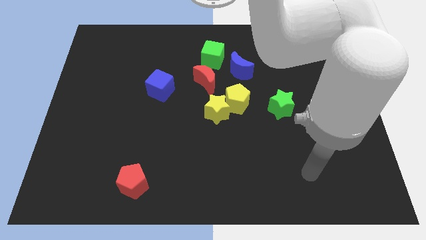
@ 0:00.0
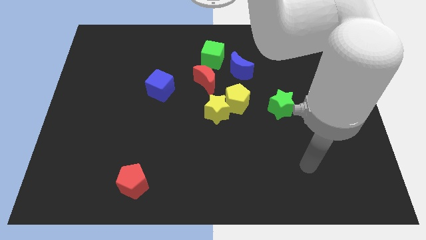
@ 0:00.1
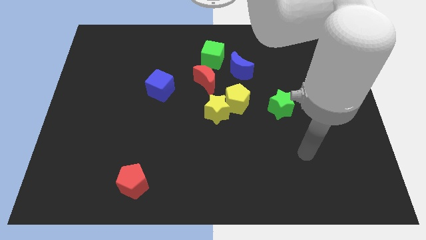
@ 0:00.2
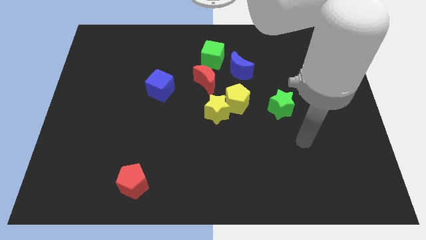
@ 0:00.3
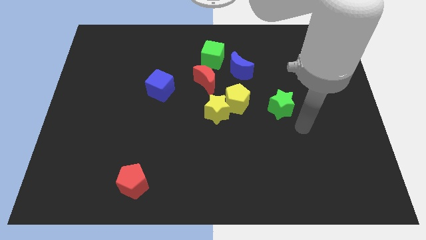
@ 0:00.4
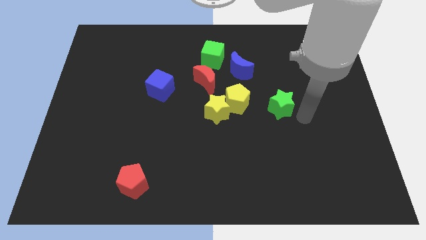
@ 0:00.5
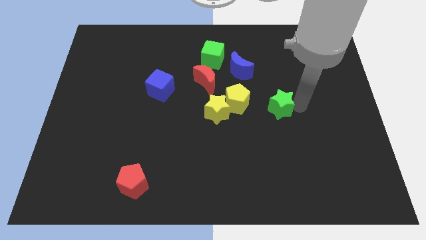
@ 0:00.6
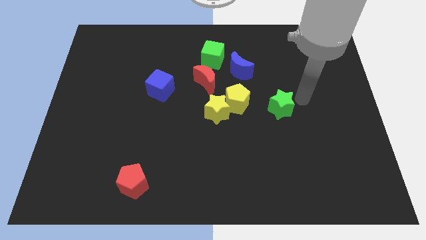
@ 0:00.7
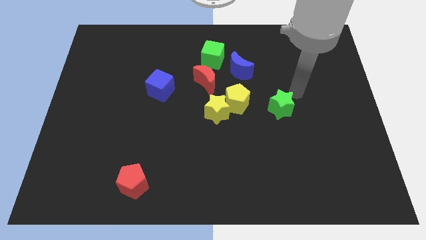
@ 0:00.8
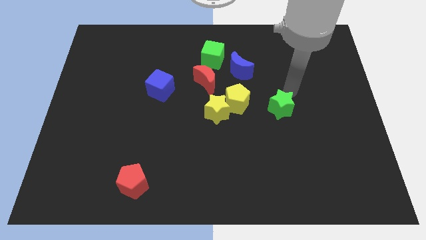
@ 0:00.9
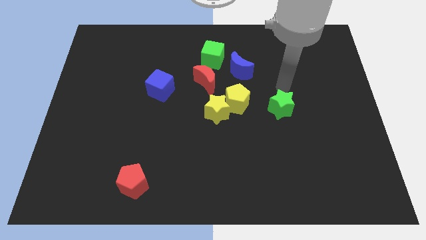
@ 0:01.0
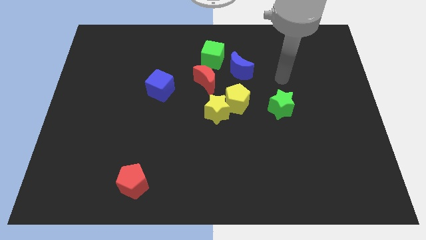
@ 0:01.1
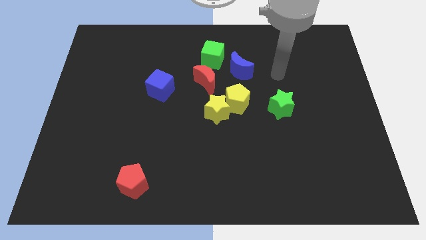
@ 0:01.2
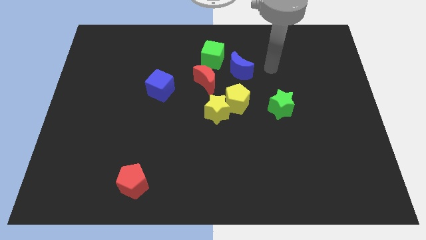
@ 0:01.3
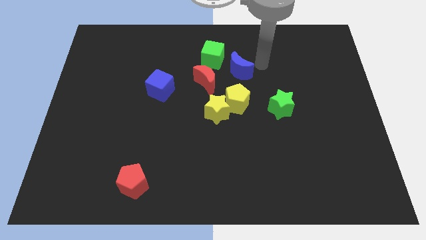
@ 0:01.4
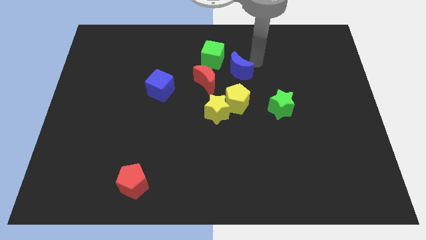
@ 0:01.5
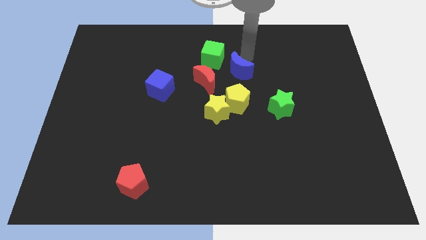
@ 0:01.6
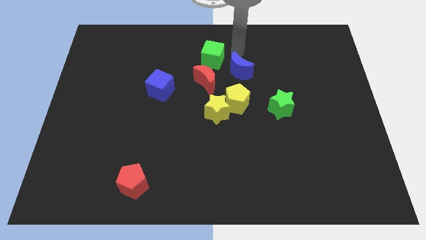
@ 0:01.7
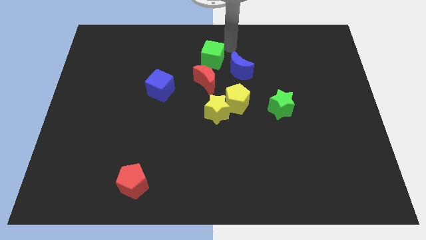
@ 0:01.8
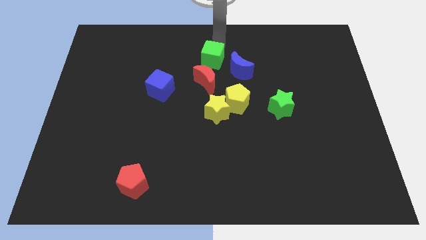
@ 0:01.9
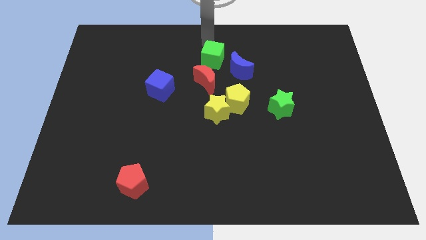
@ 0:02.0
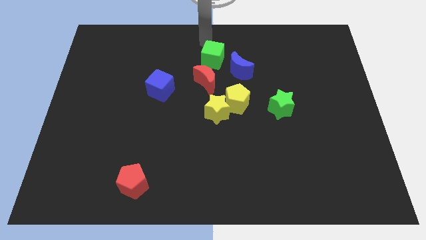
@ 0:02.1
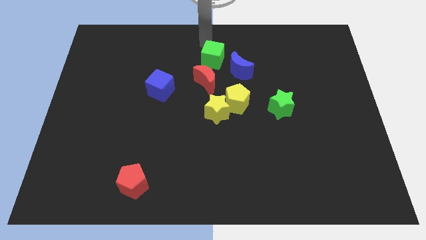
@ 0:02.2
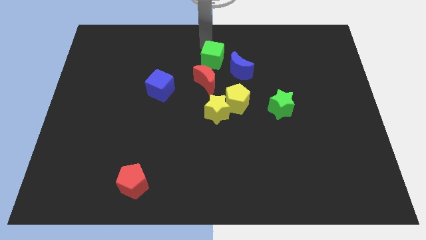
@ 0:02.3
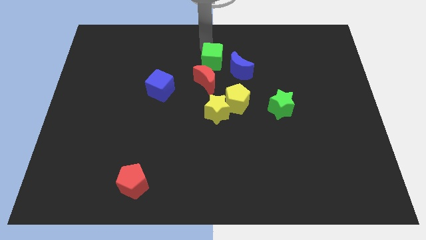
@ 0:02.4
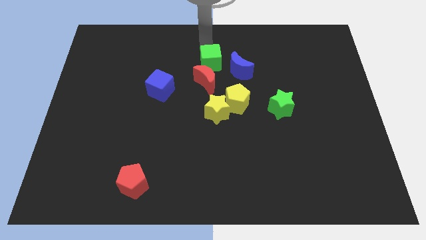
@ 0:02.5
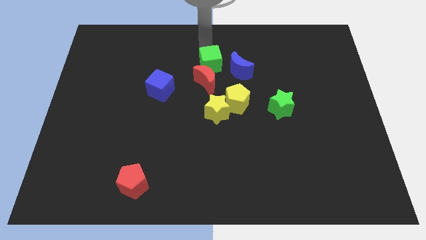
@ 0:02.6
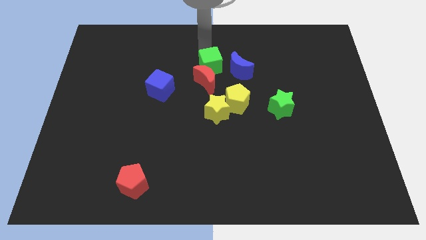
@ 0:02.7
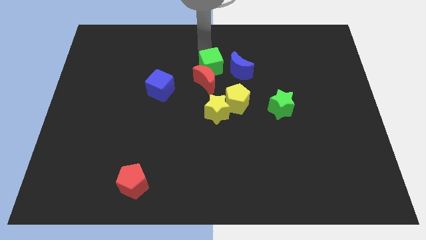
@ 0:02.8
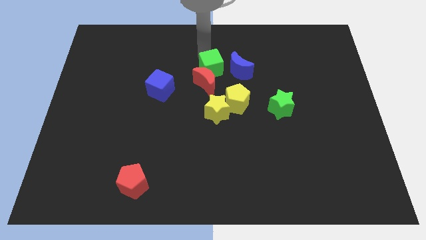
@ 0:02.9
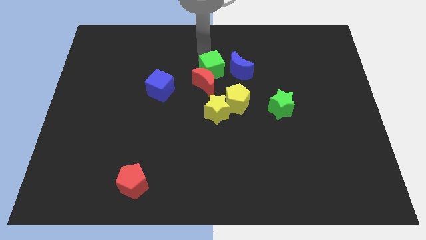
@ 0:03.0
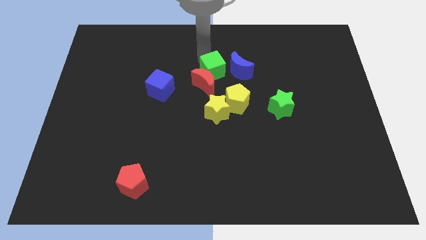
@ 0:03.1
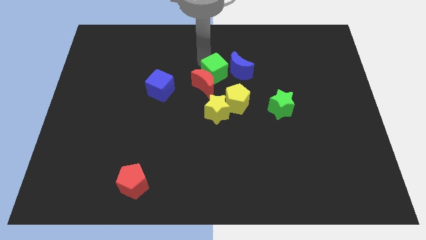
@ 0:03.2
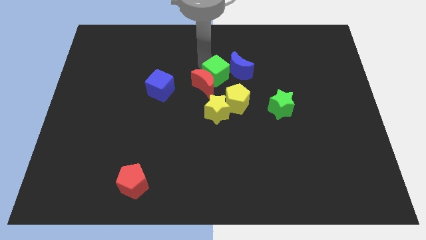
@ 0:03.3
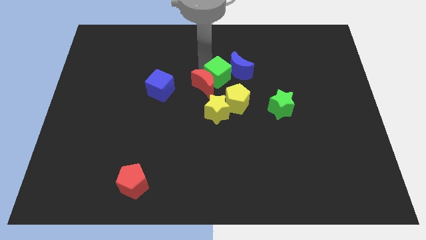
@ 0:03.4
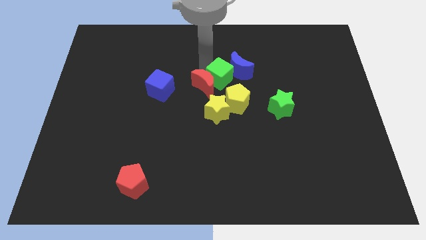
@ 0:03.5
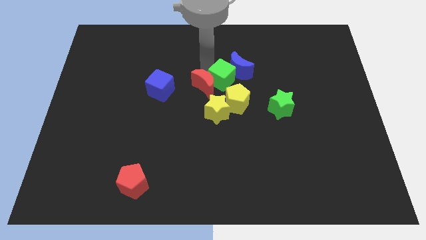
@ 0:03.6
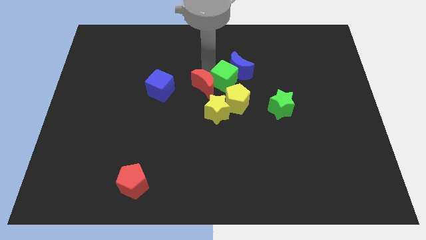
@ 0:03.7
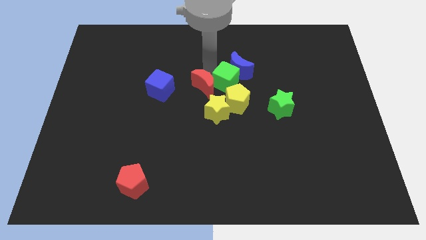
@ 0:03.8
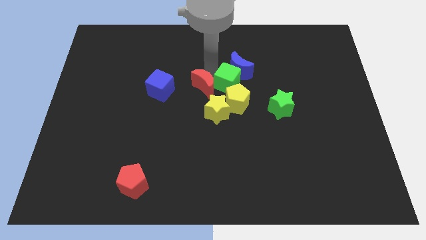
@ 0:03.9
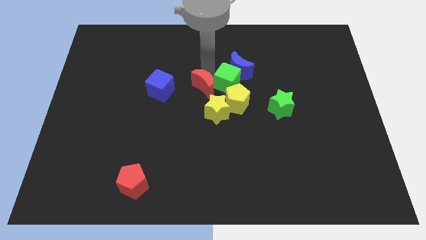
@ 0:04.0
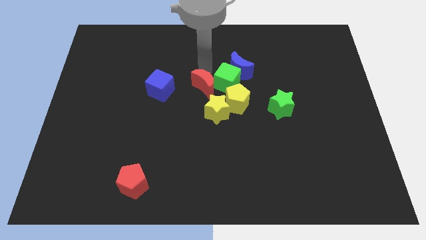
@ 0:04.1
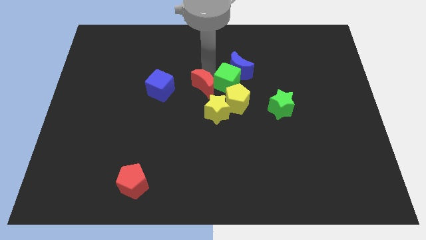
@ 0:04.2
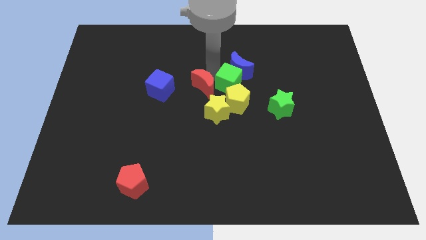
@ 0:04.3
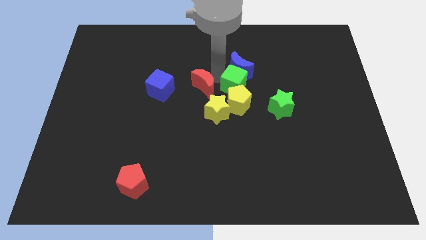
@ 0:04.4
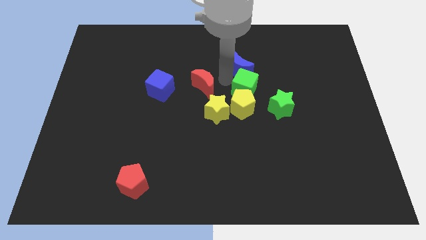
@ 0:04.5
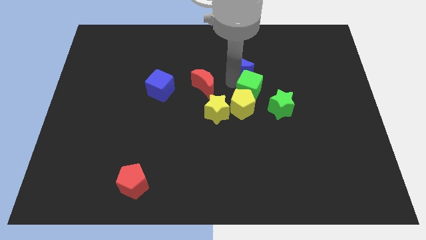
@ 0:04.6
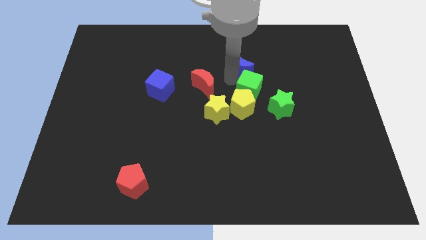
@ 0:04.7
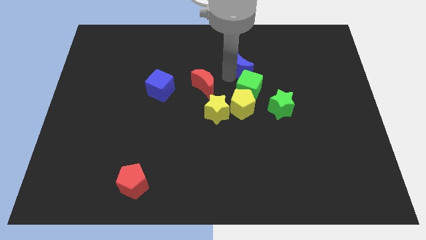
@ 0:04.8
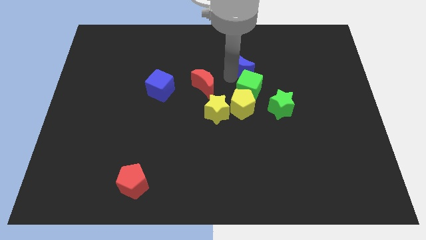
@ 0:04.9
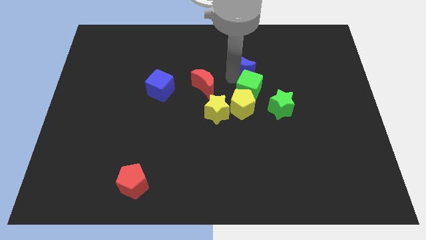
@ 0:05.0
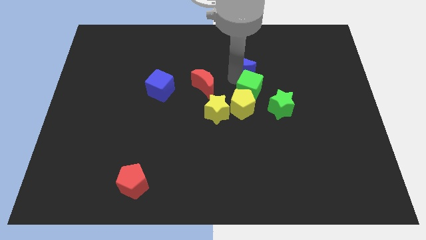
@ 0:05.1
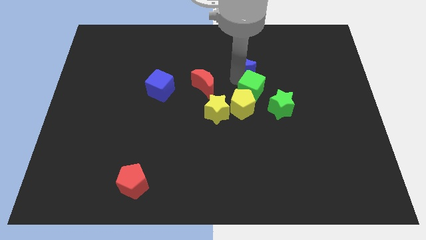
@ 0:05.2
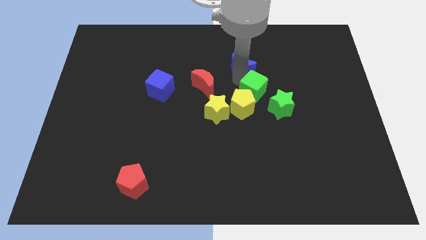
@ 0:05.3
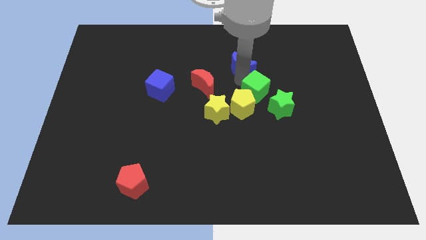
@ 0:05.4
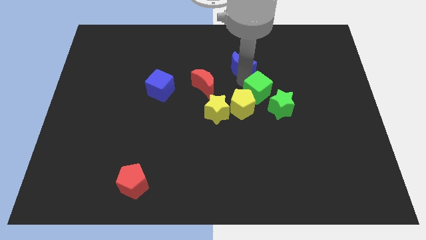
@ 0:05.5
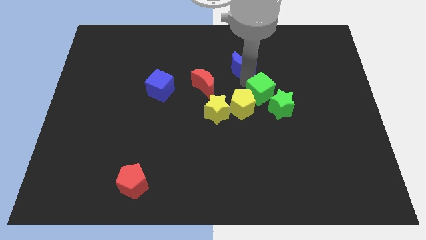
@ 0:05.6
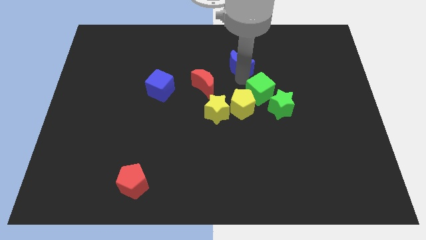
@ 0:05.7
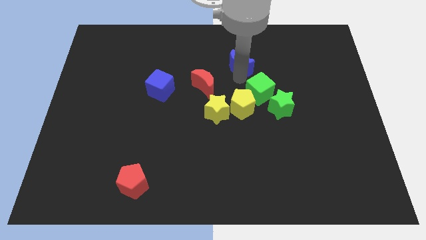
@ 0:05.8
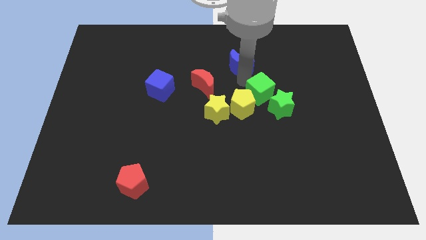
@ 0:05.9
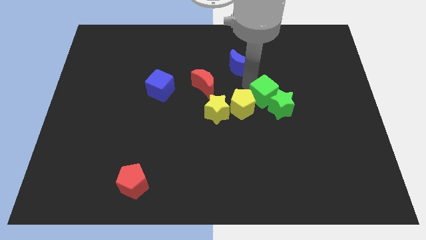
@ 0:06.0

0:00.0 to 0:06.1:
push the green cube close to the green star

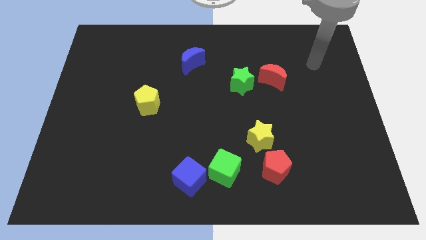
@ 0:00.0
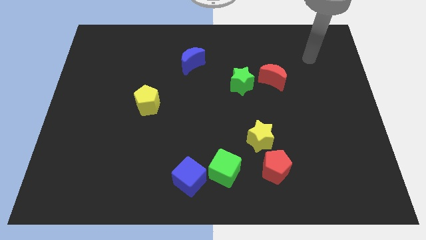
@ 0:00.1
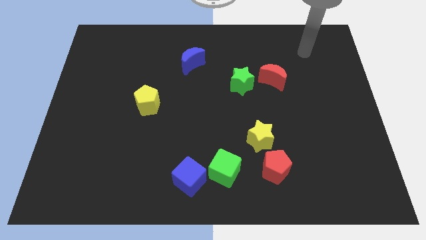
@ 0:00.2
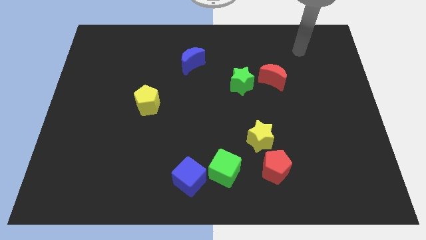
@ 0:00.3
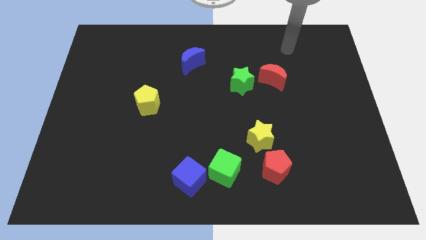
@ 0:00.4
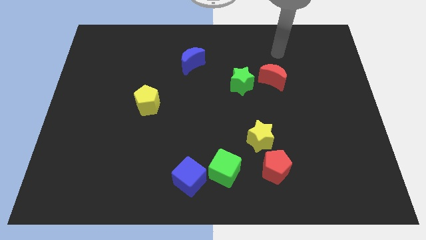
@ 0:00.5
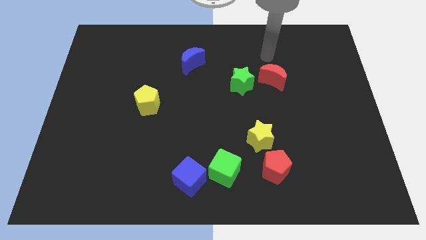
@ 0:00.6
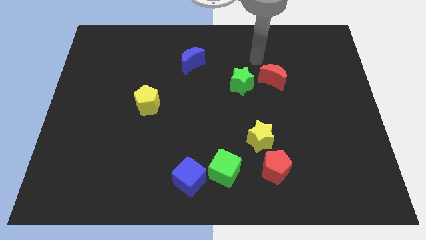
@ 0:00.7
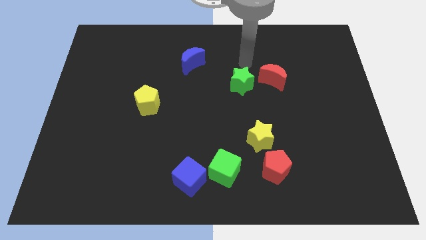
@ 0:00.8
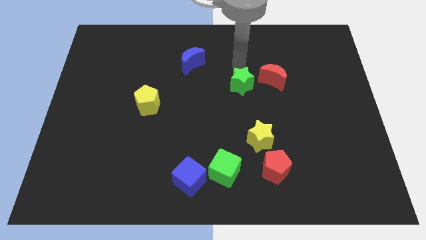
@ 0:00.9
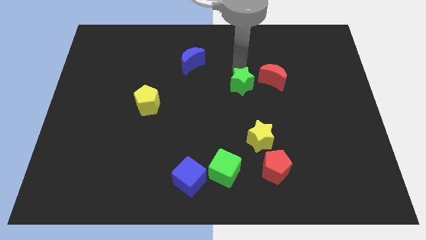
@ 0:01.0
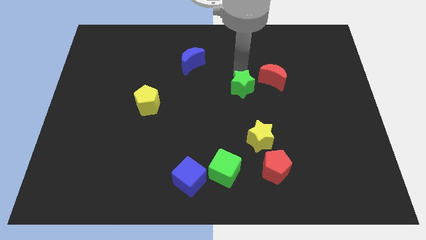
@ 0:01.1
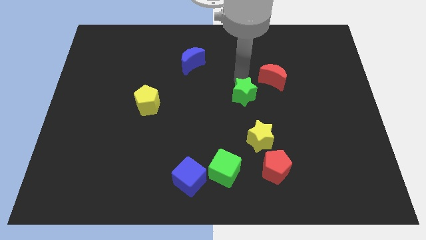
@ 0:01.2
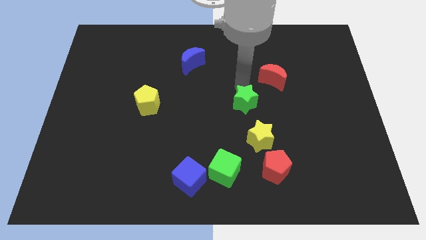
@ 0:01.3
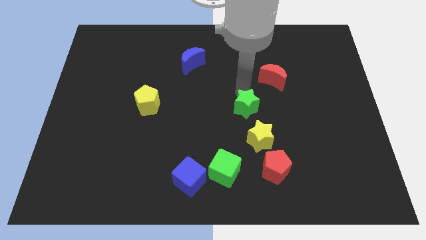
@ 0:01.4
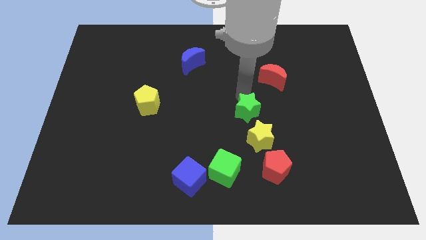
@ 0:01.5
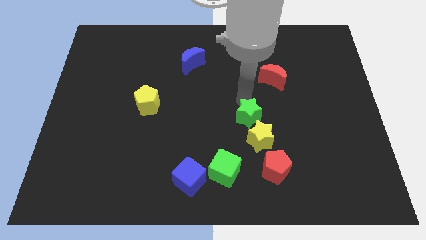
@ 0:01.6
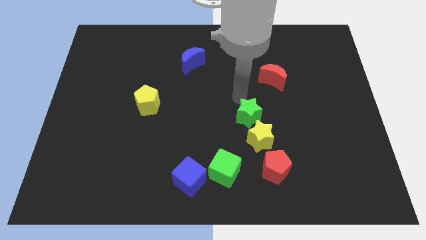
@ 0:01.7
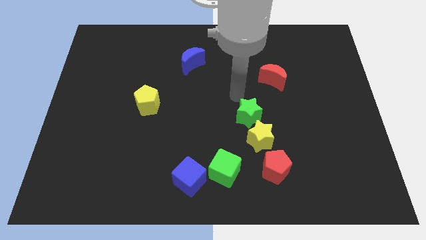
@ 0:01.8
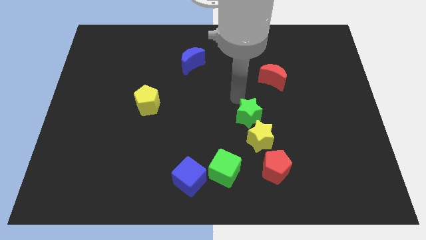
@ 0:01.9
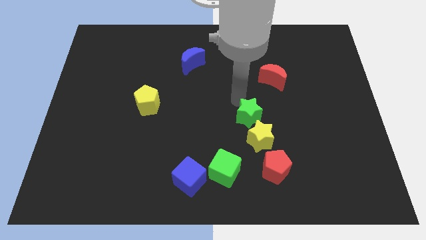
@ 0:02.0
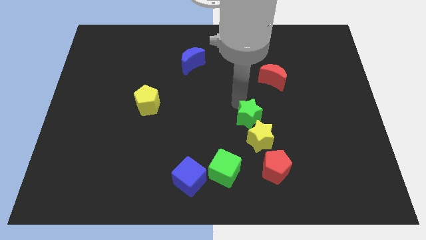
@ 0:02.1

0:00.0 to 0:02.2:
slide the green star next to the yellow star
